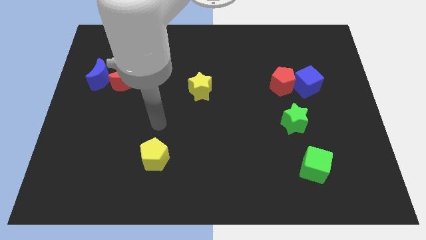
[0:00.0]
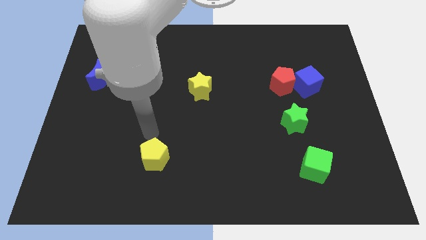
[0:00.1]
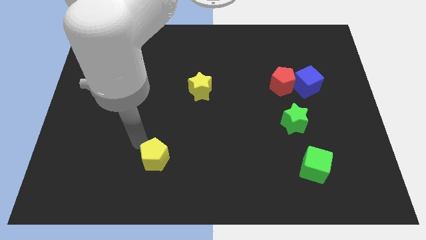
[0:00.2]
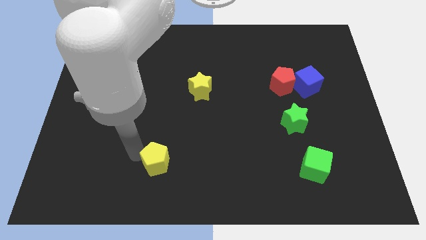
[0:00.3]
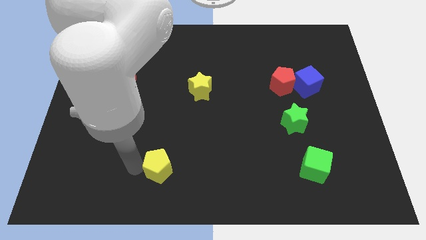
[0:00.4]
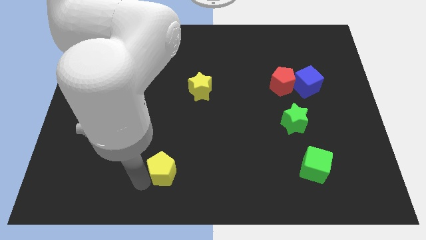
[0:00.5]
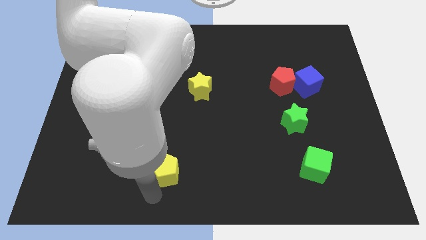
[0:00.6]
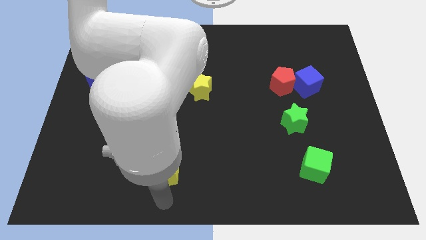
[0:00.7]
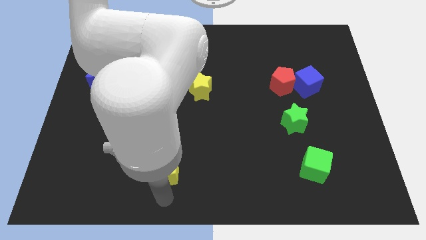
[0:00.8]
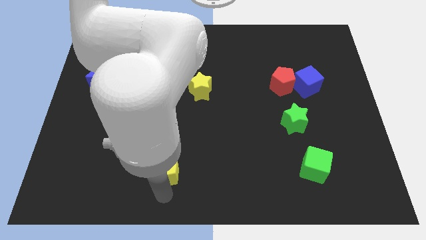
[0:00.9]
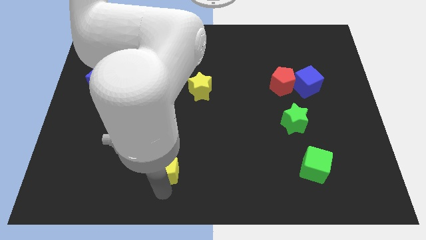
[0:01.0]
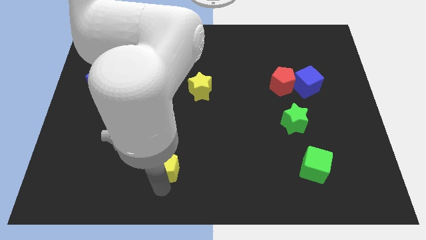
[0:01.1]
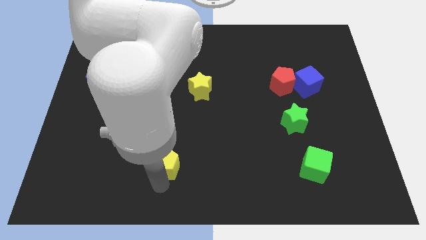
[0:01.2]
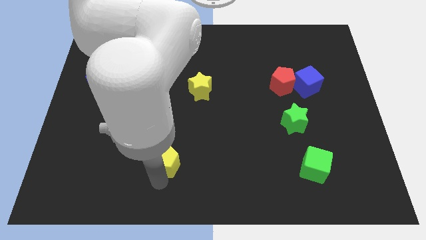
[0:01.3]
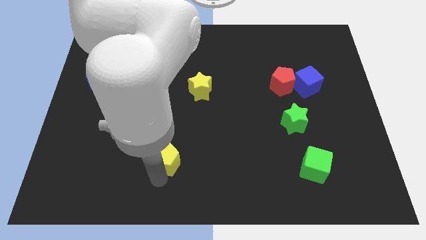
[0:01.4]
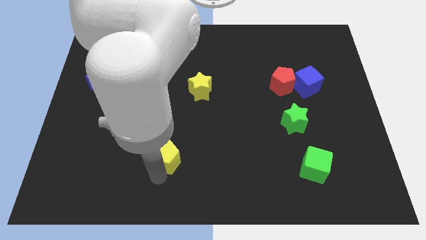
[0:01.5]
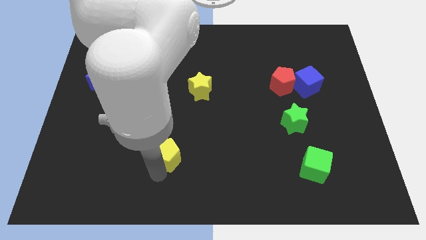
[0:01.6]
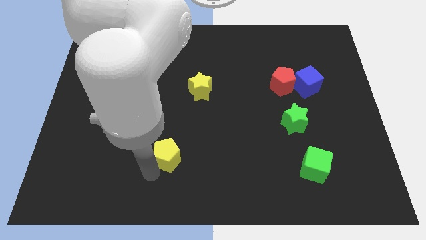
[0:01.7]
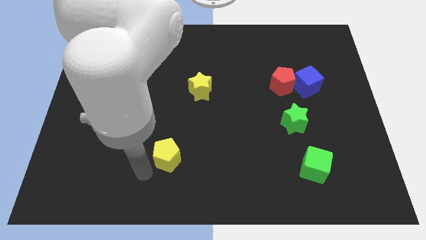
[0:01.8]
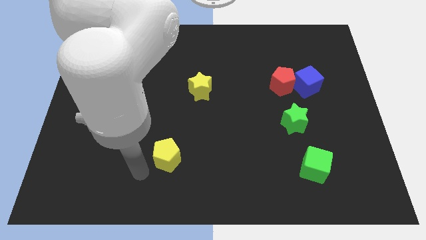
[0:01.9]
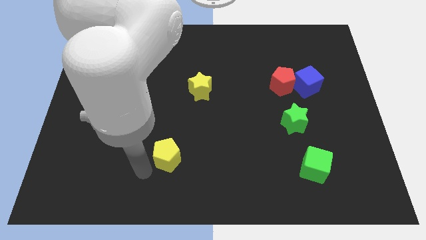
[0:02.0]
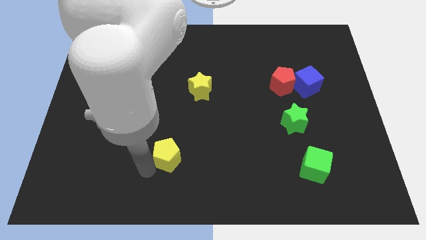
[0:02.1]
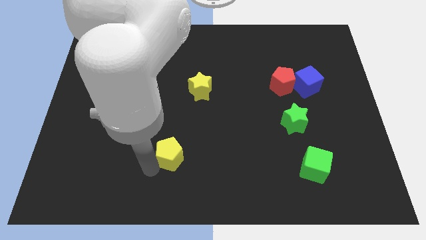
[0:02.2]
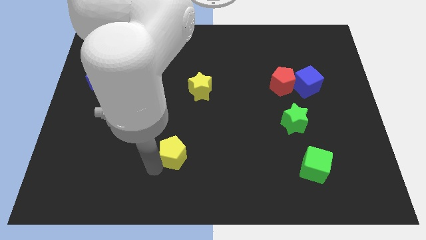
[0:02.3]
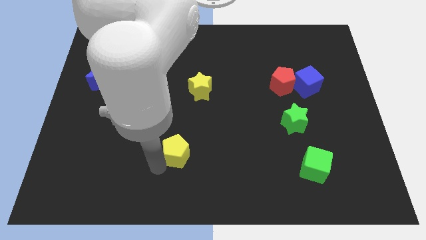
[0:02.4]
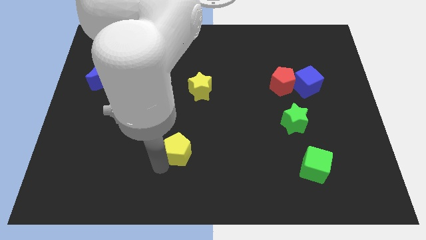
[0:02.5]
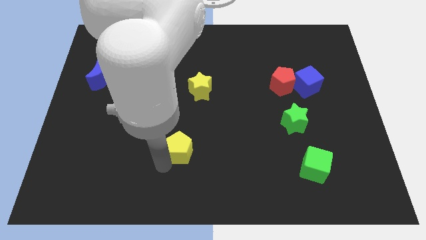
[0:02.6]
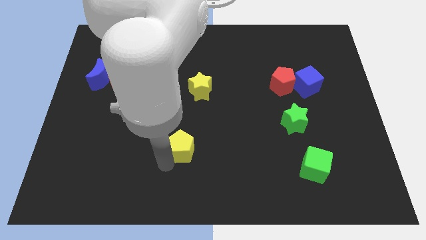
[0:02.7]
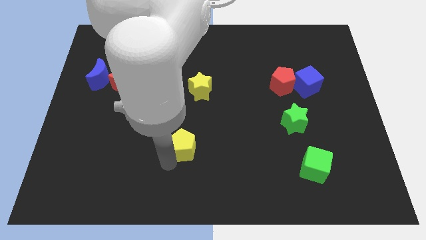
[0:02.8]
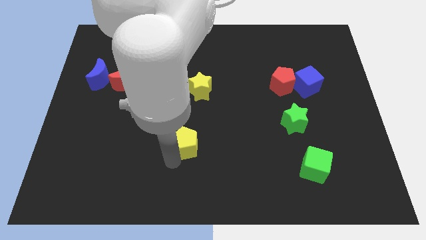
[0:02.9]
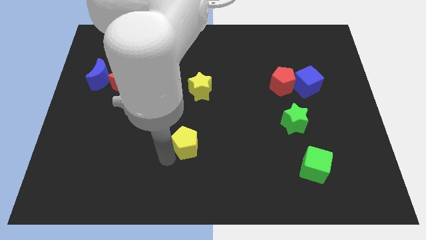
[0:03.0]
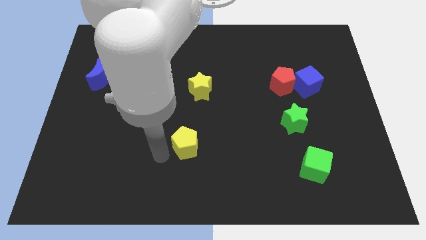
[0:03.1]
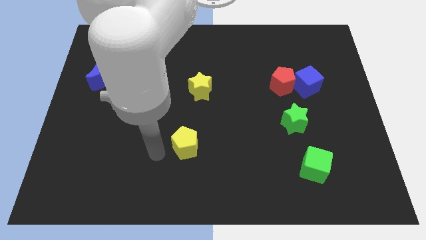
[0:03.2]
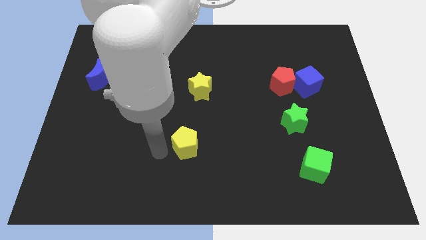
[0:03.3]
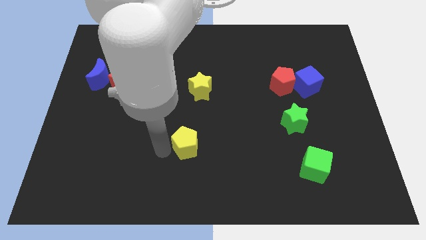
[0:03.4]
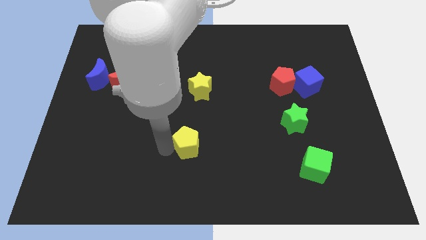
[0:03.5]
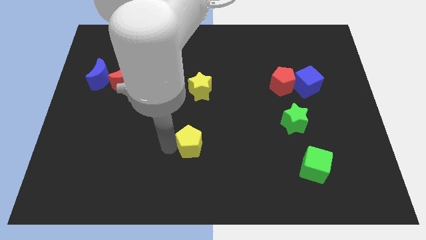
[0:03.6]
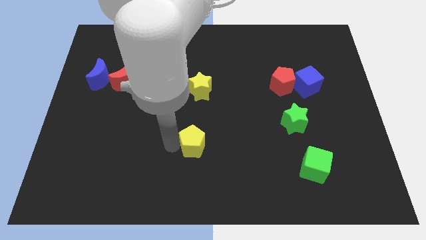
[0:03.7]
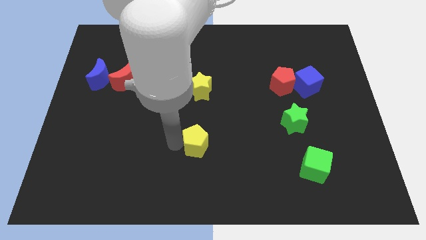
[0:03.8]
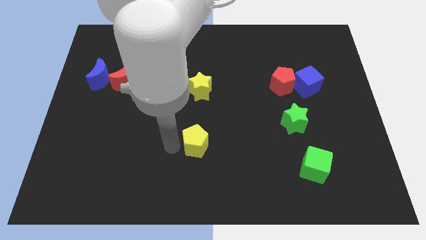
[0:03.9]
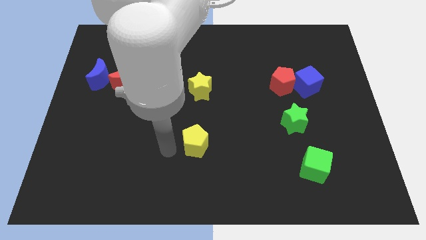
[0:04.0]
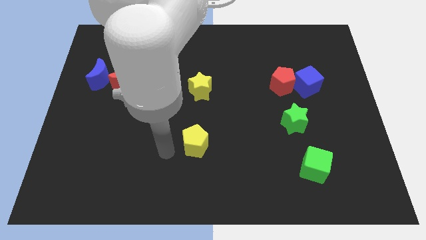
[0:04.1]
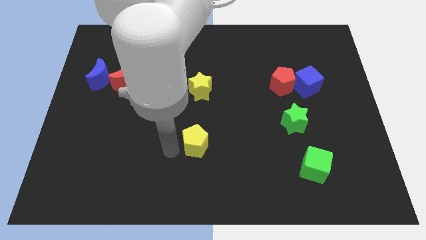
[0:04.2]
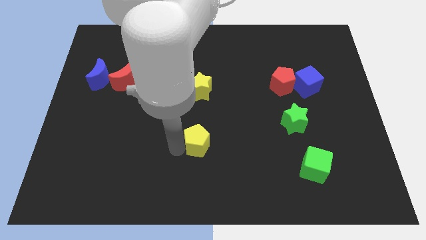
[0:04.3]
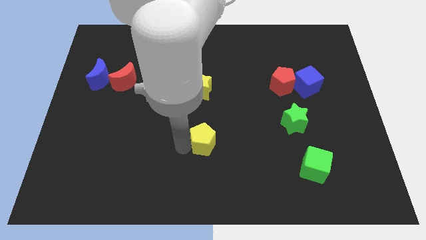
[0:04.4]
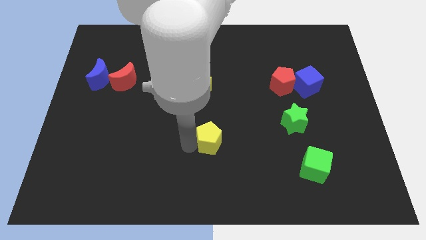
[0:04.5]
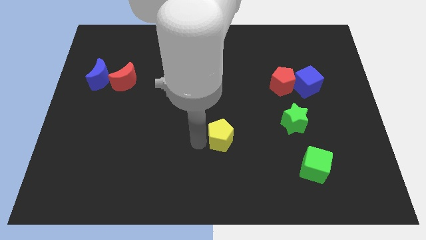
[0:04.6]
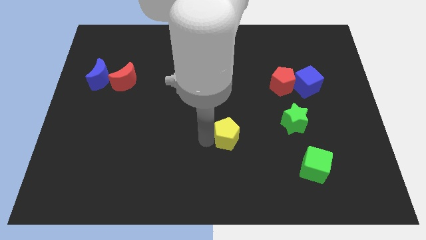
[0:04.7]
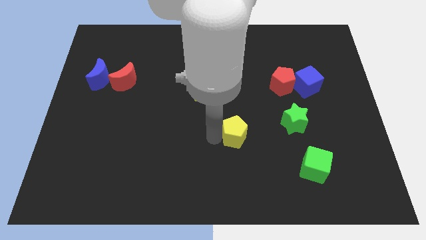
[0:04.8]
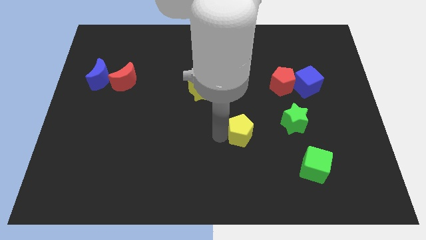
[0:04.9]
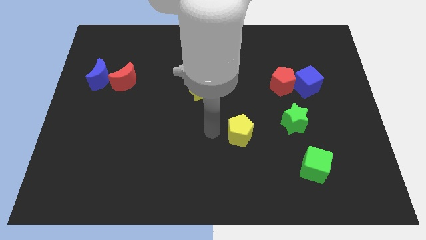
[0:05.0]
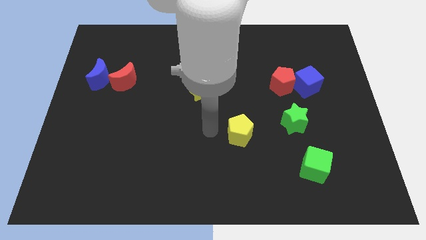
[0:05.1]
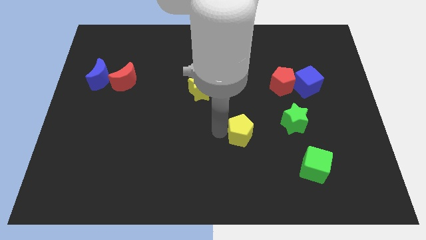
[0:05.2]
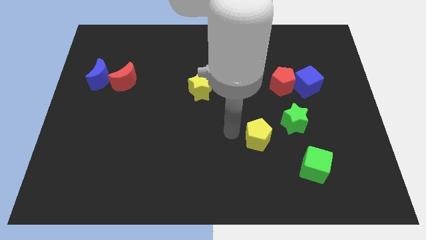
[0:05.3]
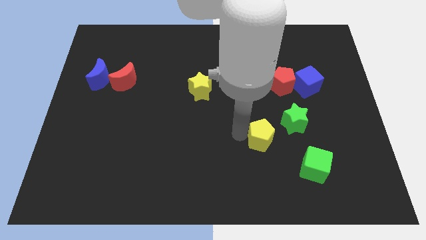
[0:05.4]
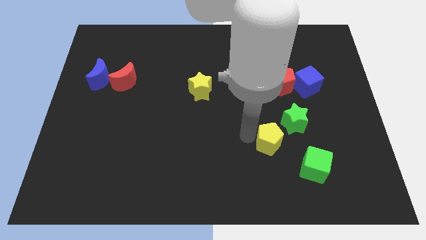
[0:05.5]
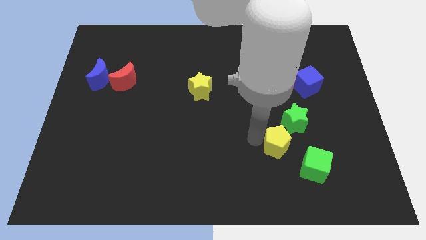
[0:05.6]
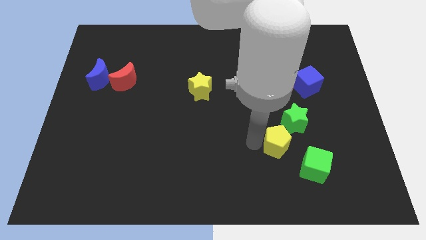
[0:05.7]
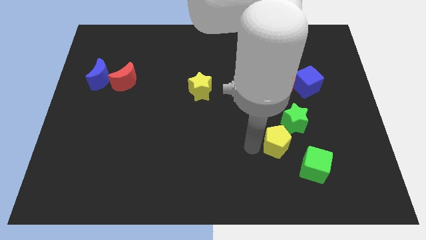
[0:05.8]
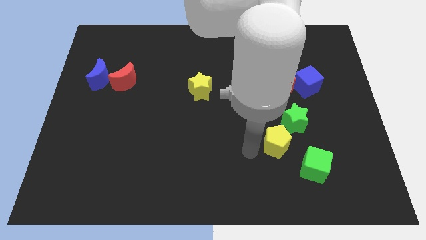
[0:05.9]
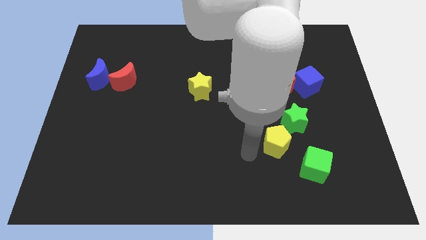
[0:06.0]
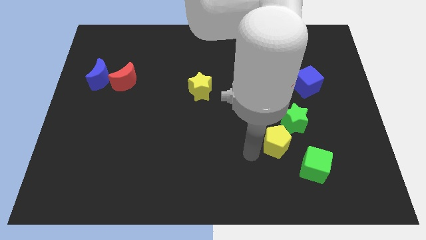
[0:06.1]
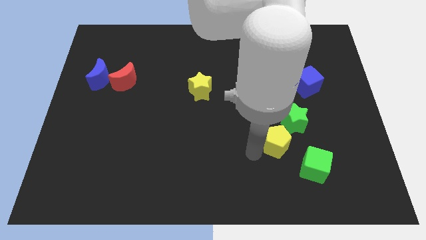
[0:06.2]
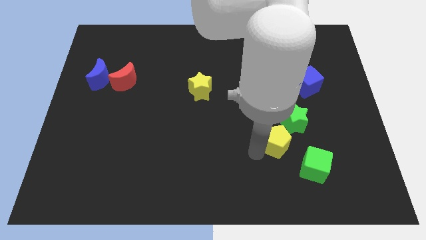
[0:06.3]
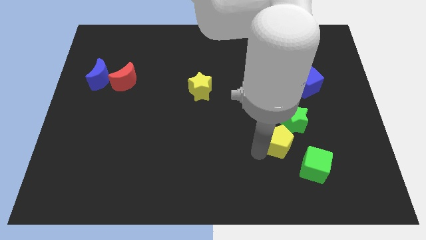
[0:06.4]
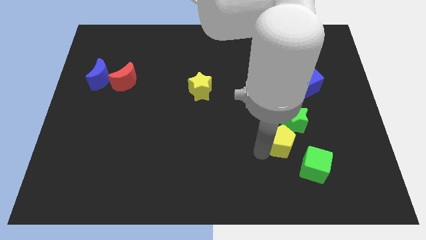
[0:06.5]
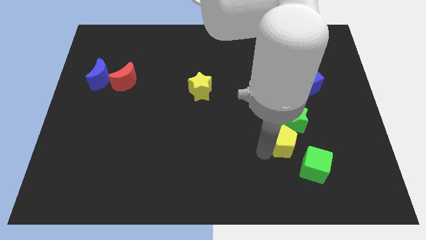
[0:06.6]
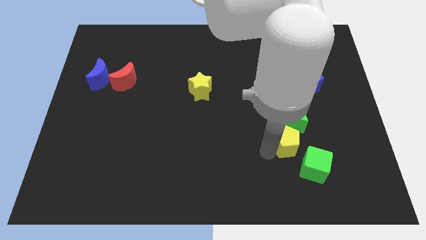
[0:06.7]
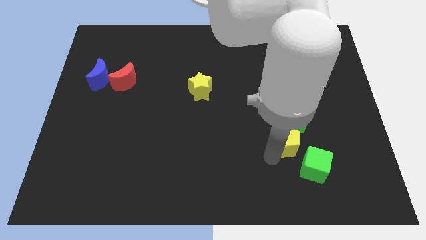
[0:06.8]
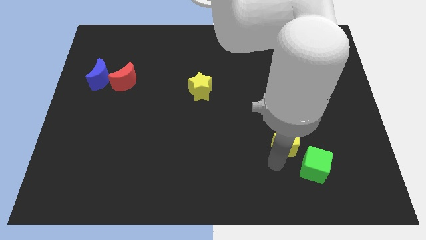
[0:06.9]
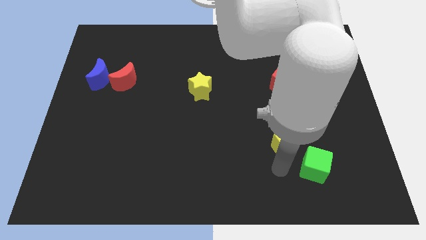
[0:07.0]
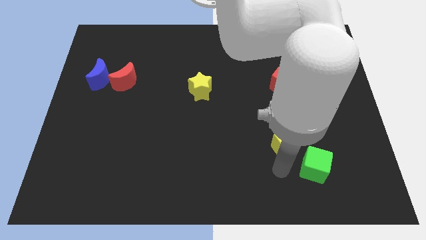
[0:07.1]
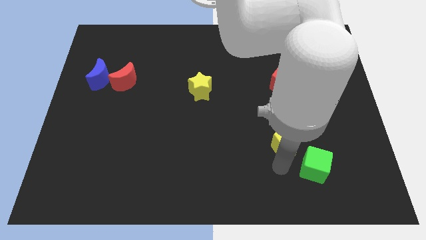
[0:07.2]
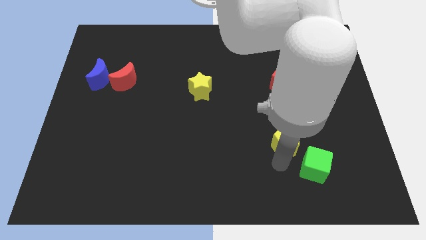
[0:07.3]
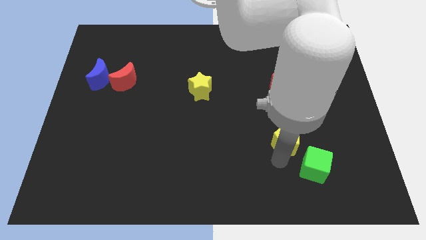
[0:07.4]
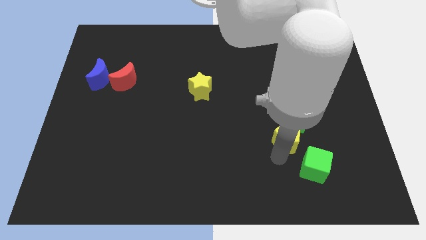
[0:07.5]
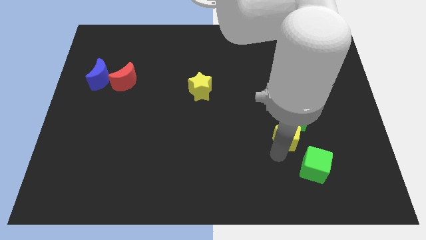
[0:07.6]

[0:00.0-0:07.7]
move the yellow pentagon below the red pentagon
